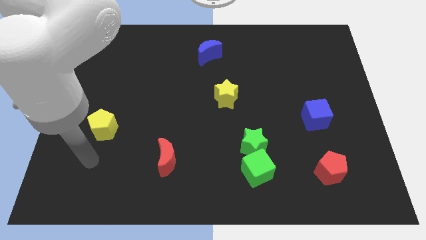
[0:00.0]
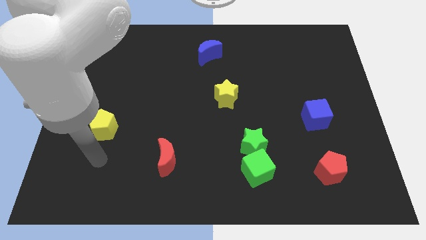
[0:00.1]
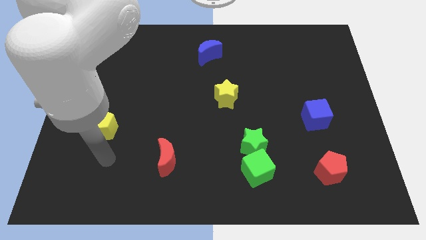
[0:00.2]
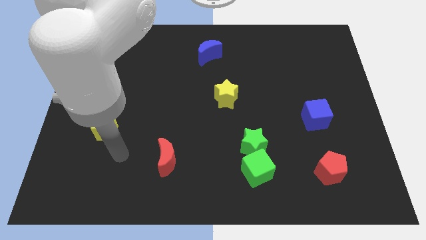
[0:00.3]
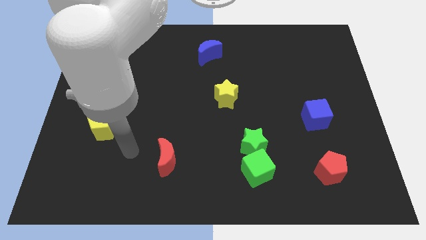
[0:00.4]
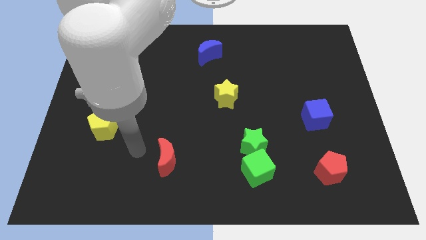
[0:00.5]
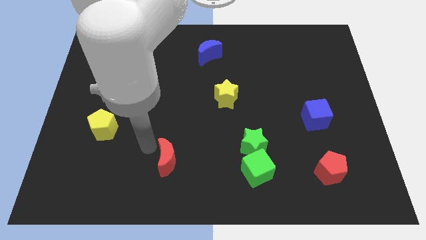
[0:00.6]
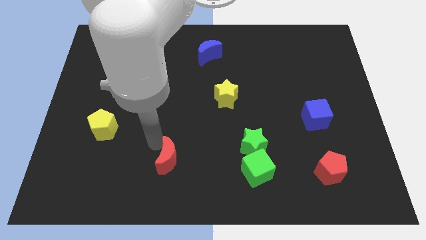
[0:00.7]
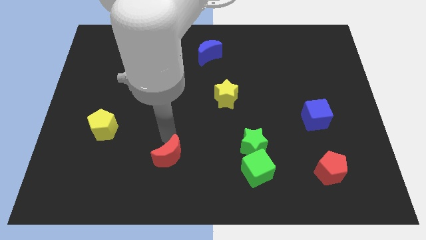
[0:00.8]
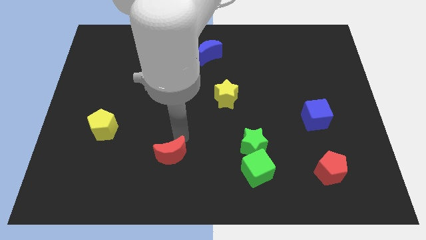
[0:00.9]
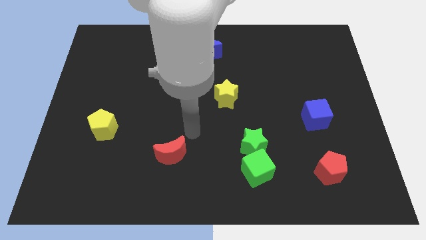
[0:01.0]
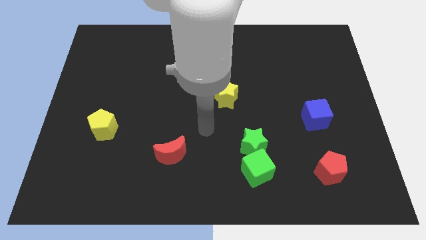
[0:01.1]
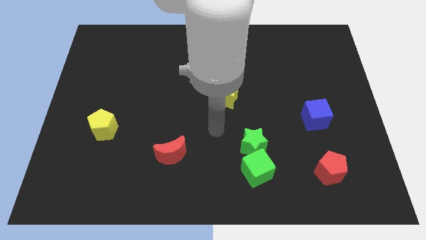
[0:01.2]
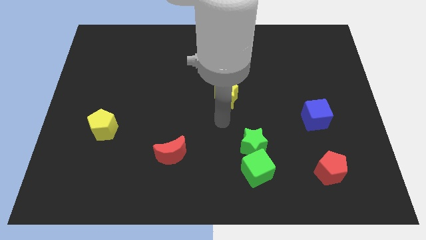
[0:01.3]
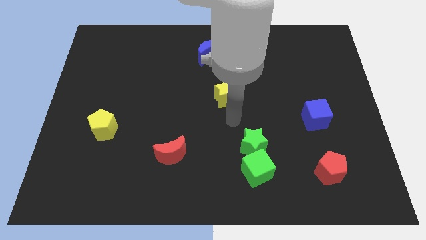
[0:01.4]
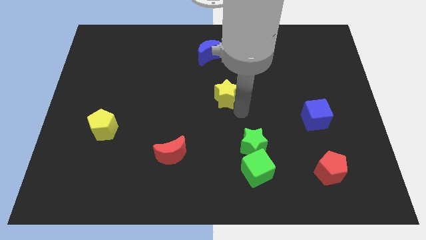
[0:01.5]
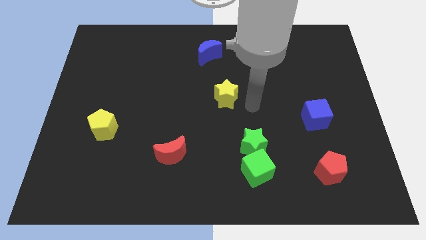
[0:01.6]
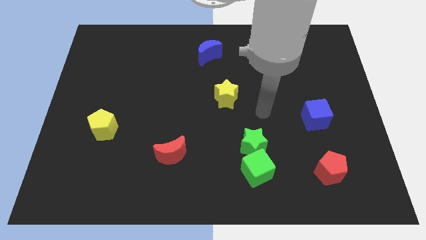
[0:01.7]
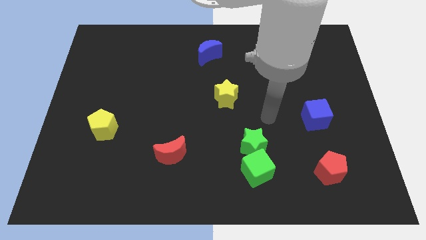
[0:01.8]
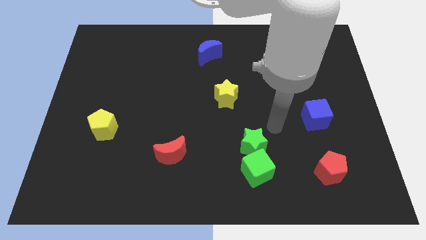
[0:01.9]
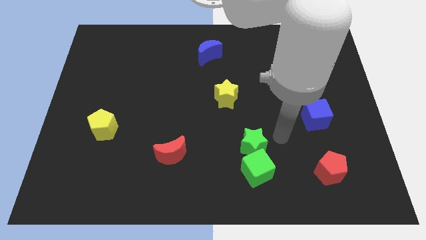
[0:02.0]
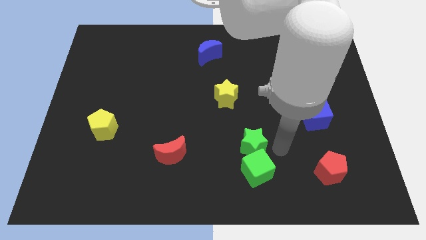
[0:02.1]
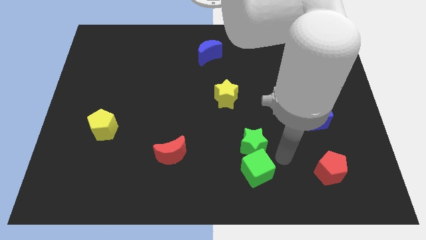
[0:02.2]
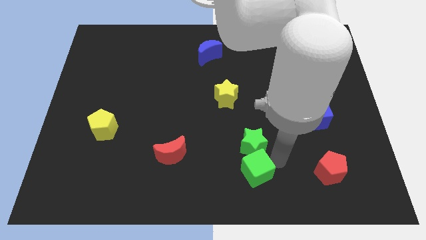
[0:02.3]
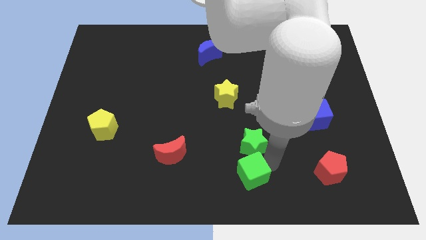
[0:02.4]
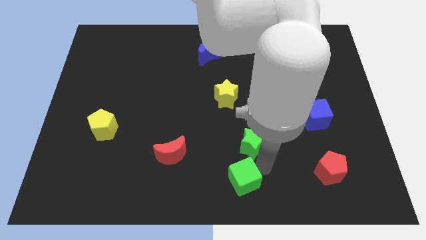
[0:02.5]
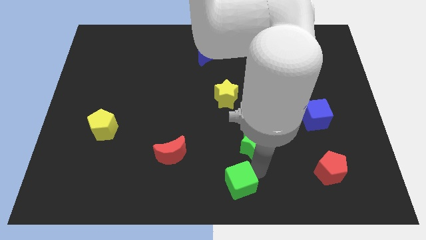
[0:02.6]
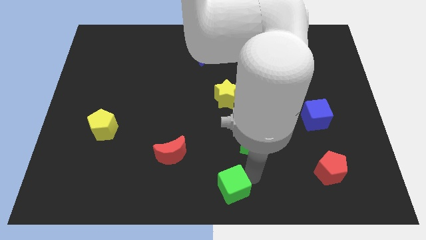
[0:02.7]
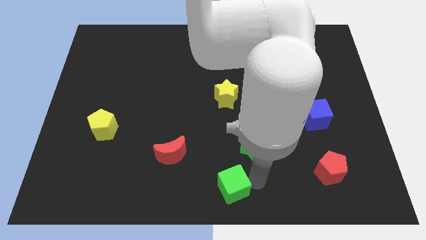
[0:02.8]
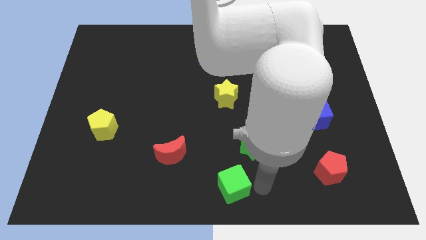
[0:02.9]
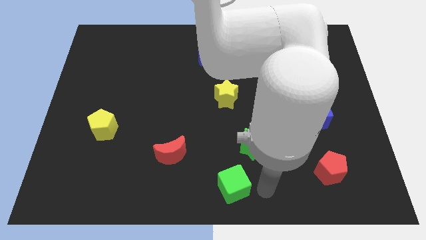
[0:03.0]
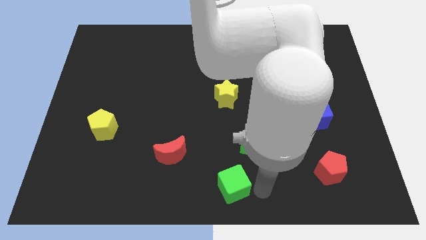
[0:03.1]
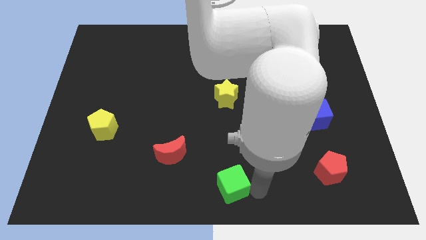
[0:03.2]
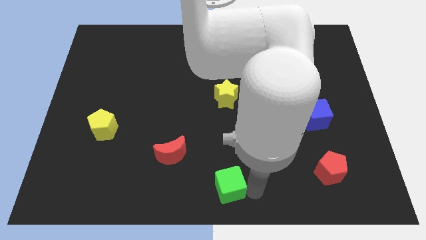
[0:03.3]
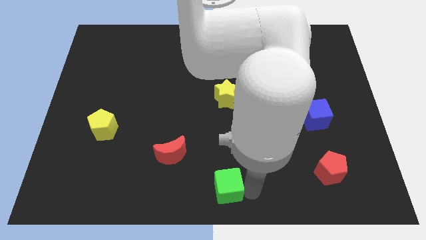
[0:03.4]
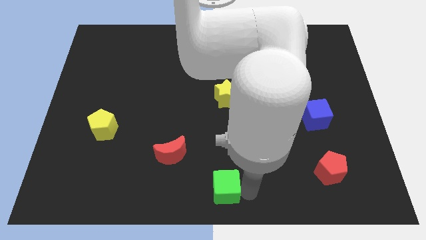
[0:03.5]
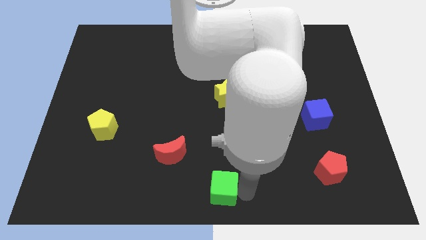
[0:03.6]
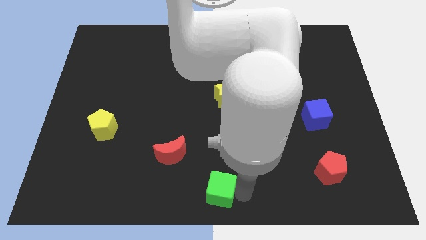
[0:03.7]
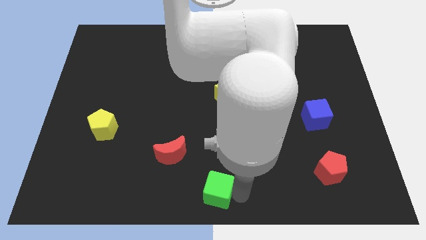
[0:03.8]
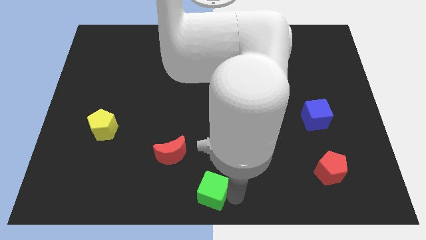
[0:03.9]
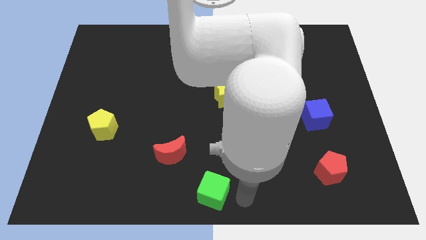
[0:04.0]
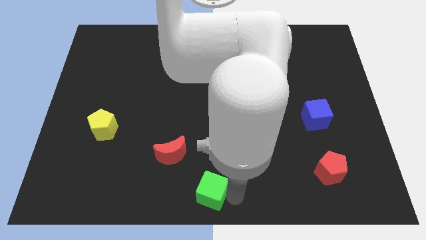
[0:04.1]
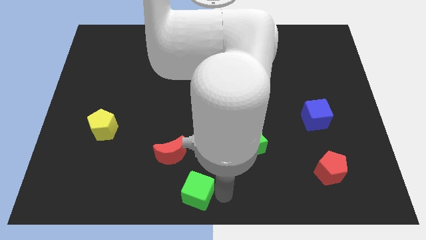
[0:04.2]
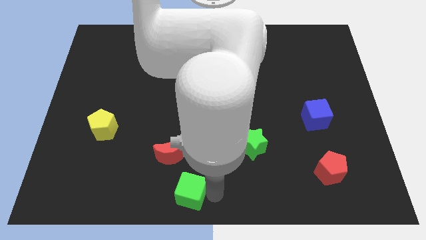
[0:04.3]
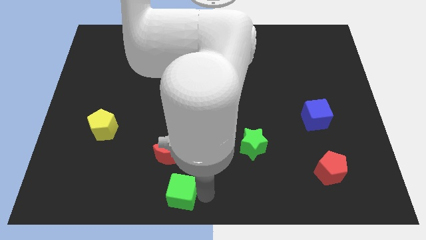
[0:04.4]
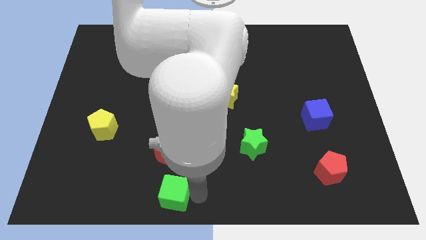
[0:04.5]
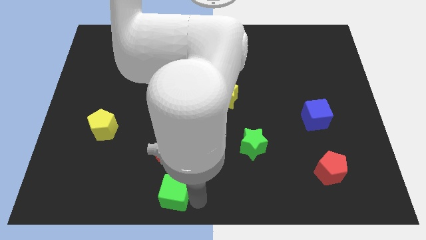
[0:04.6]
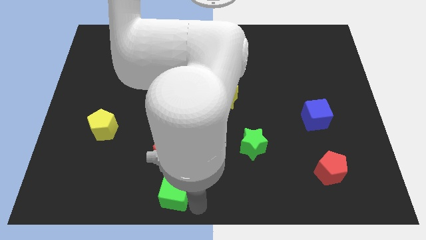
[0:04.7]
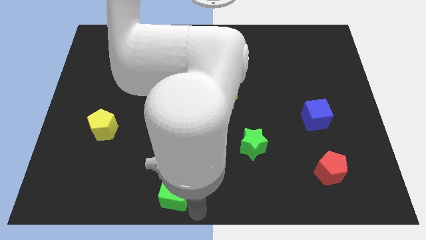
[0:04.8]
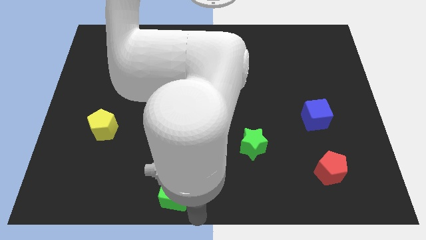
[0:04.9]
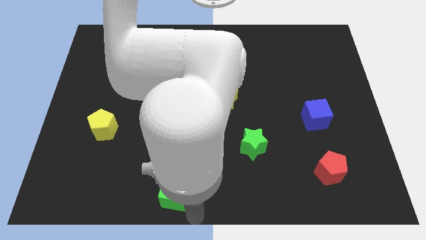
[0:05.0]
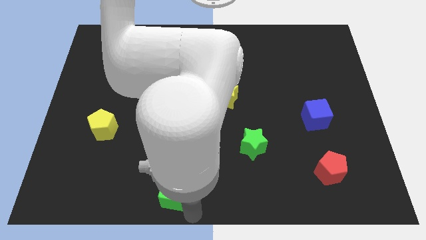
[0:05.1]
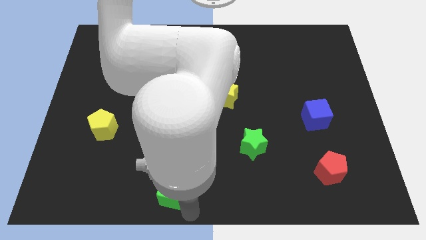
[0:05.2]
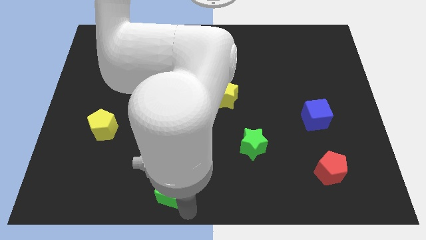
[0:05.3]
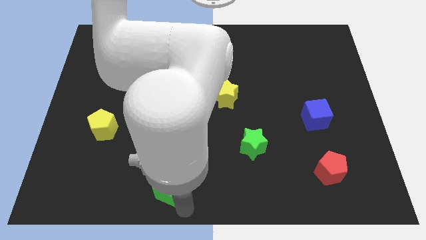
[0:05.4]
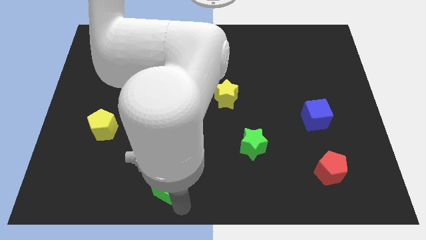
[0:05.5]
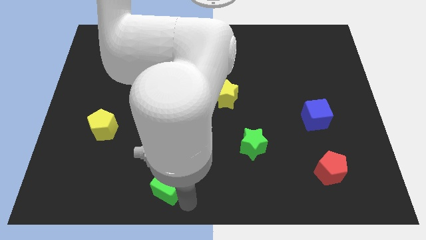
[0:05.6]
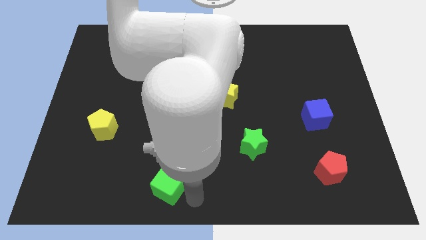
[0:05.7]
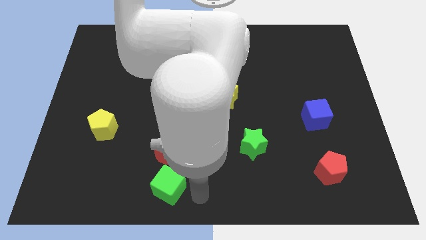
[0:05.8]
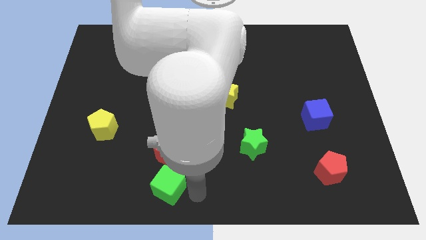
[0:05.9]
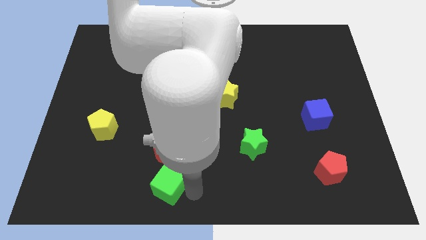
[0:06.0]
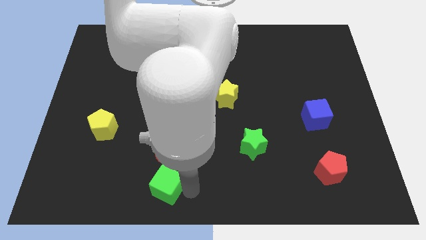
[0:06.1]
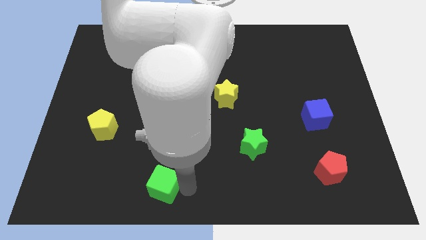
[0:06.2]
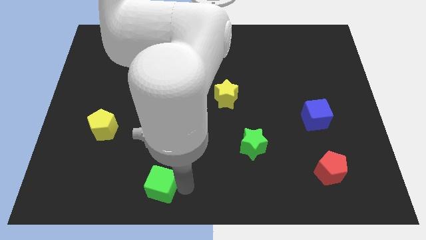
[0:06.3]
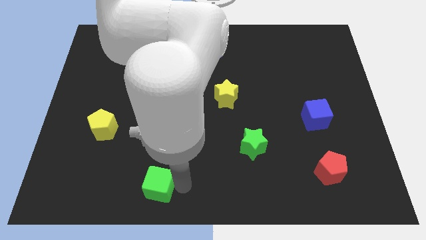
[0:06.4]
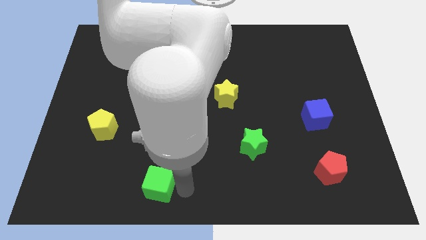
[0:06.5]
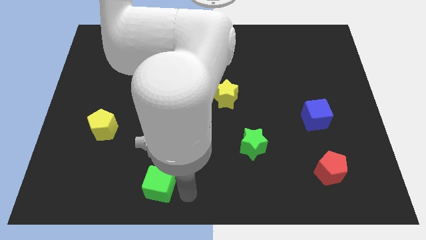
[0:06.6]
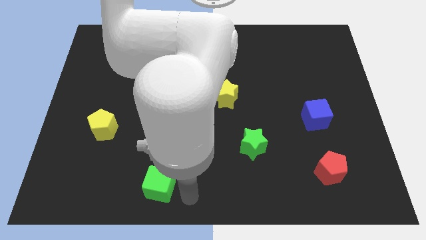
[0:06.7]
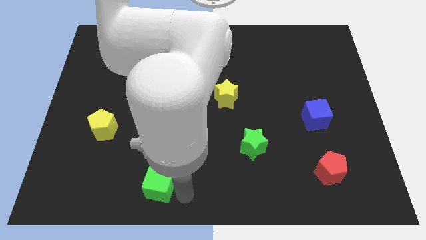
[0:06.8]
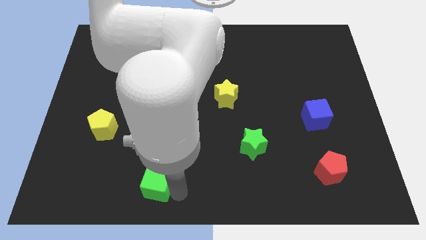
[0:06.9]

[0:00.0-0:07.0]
push the green cube to the left

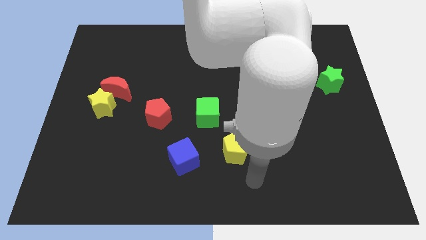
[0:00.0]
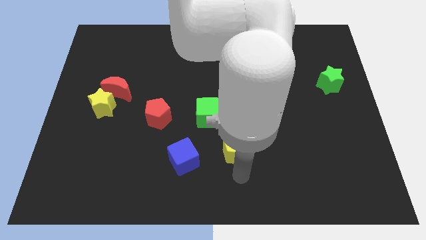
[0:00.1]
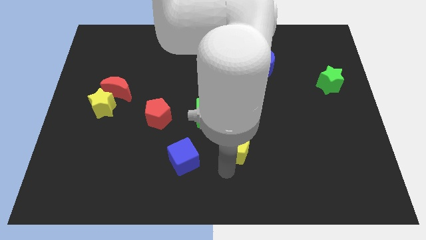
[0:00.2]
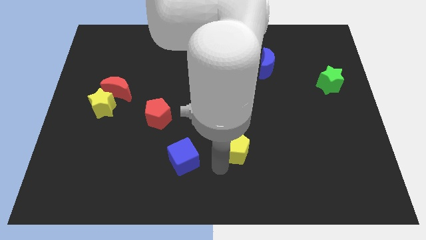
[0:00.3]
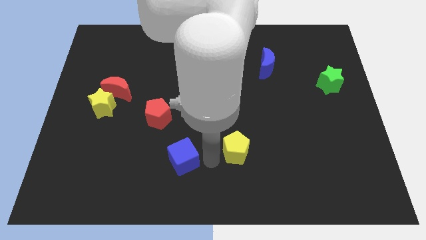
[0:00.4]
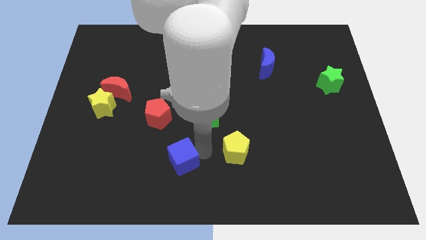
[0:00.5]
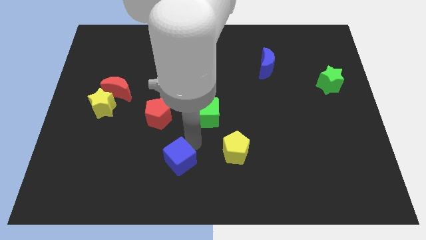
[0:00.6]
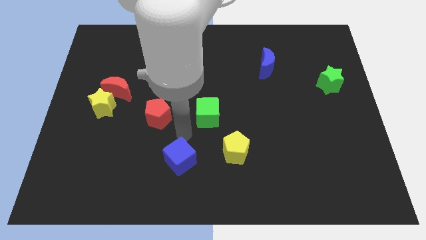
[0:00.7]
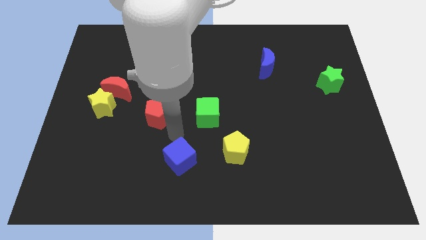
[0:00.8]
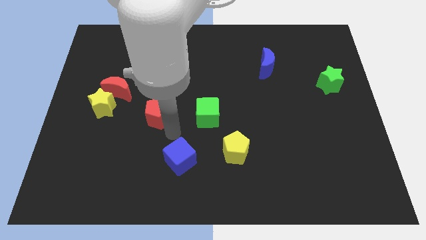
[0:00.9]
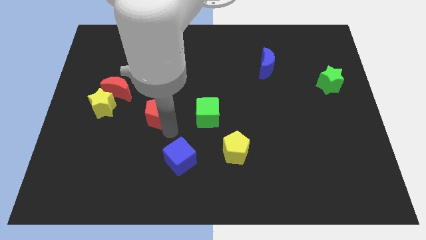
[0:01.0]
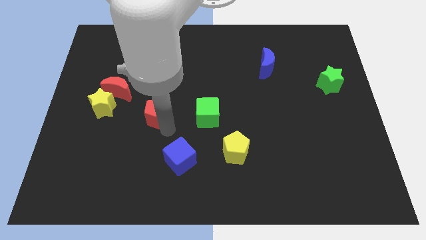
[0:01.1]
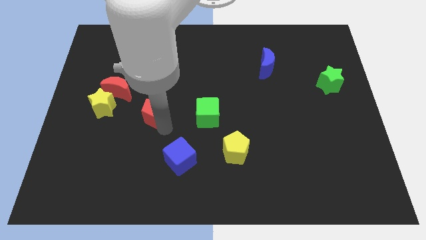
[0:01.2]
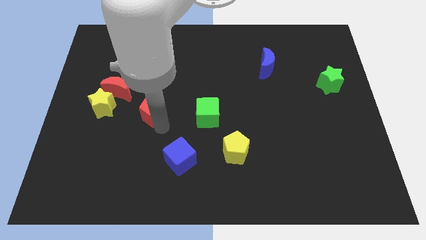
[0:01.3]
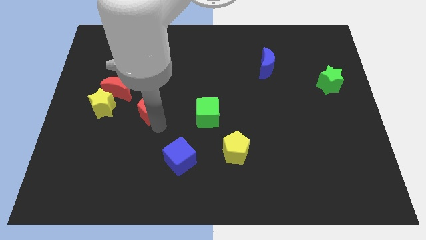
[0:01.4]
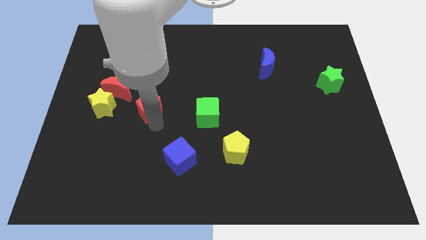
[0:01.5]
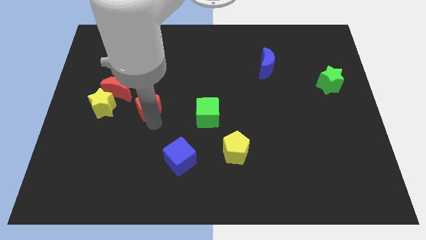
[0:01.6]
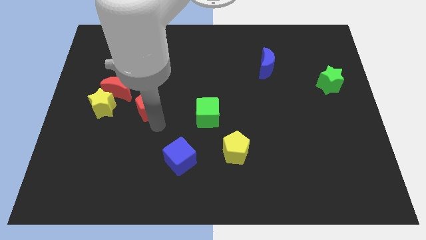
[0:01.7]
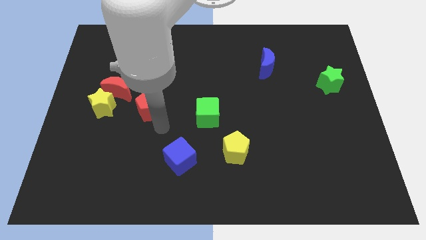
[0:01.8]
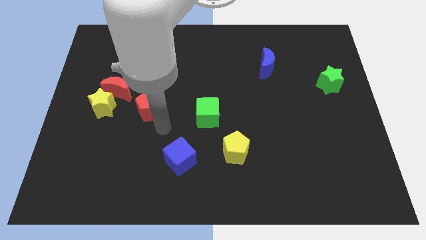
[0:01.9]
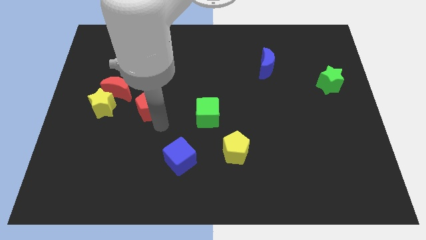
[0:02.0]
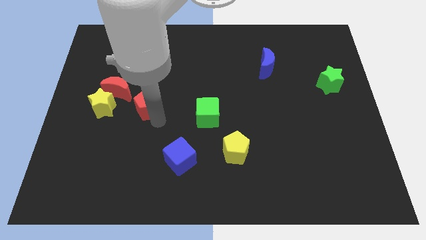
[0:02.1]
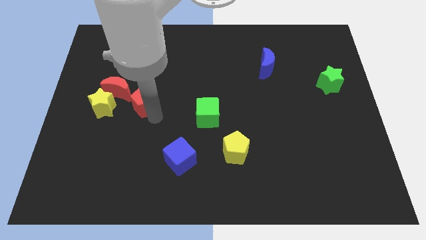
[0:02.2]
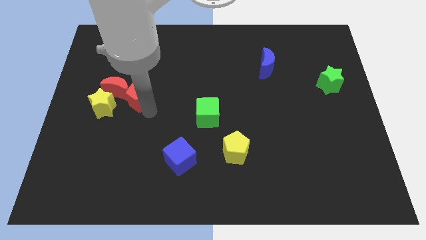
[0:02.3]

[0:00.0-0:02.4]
slightly move the red pentagon diagonally upwards and to the left
